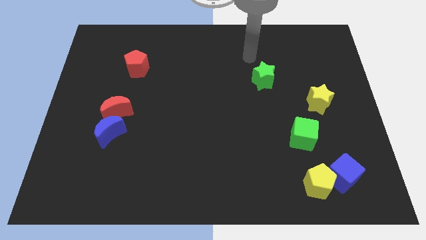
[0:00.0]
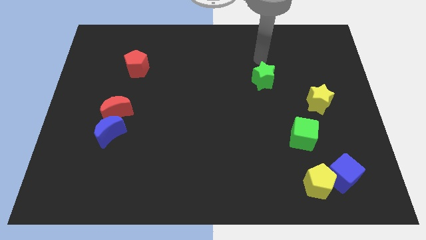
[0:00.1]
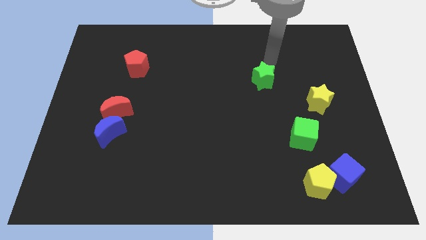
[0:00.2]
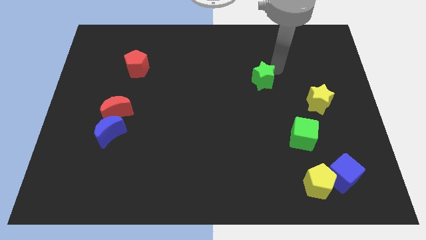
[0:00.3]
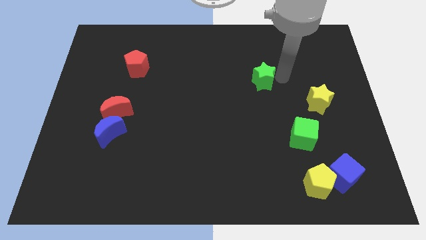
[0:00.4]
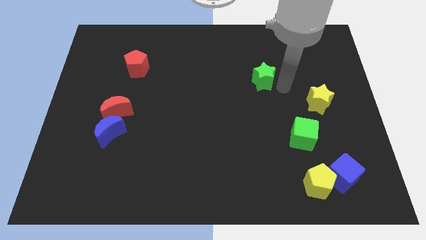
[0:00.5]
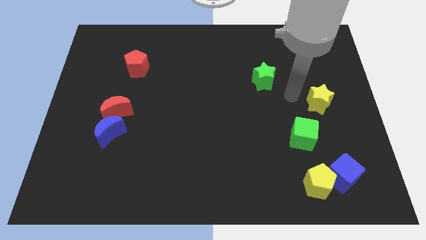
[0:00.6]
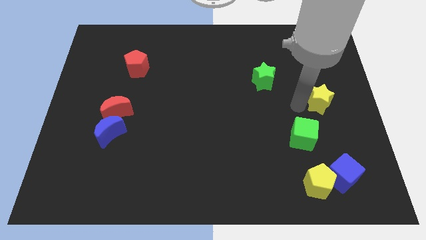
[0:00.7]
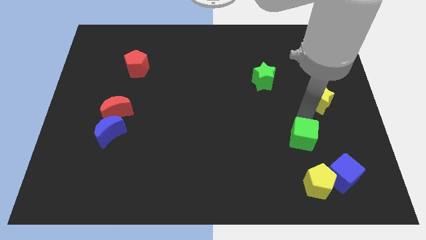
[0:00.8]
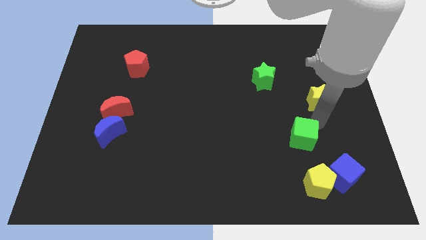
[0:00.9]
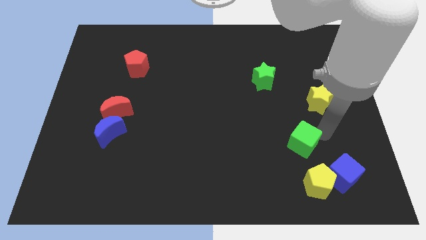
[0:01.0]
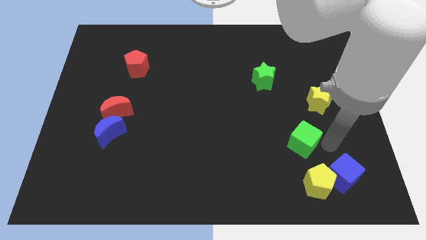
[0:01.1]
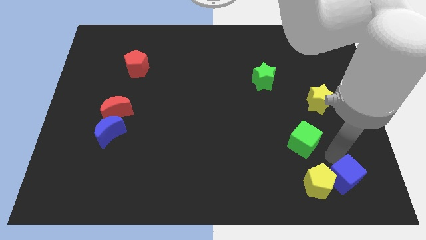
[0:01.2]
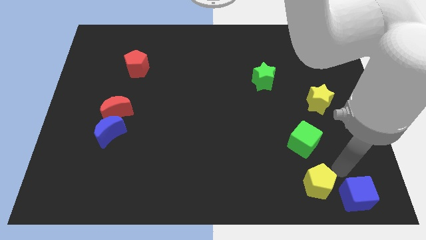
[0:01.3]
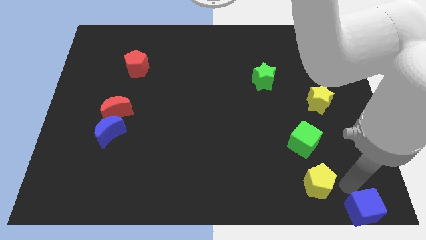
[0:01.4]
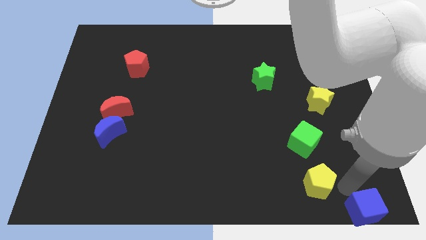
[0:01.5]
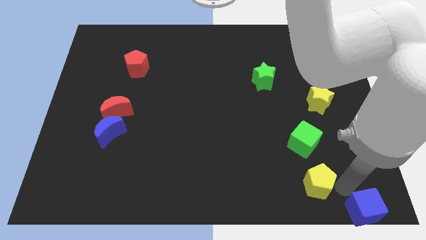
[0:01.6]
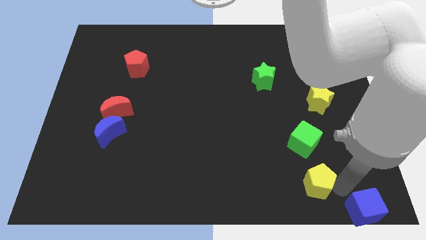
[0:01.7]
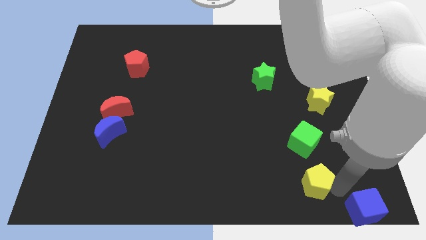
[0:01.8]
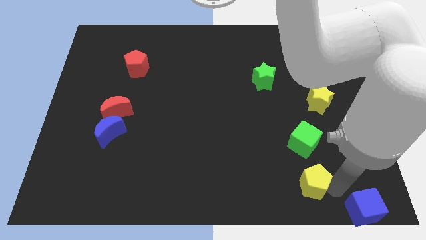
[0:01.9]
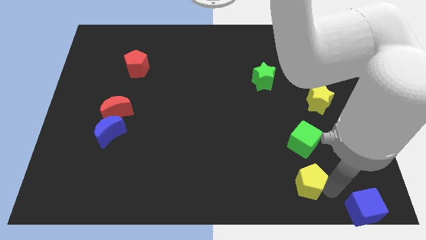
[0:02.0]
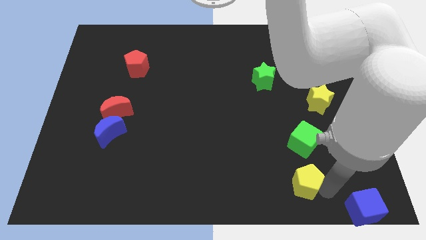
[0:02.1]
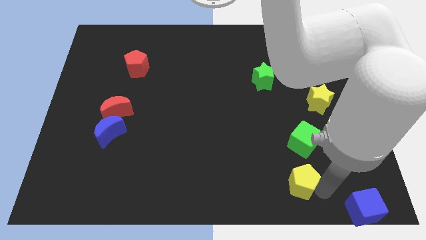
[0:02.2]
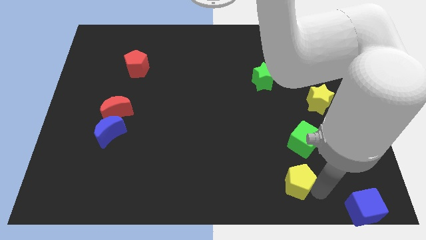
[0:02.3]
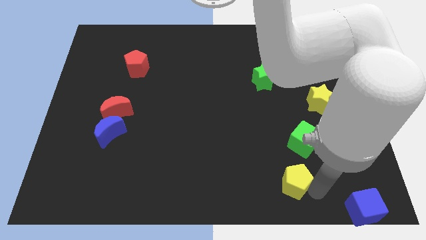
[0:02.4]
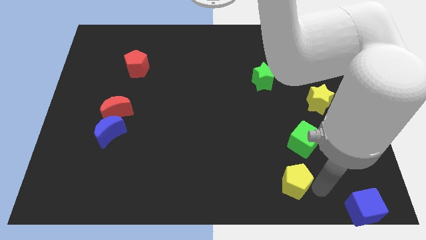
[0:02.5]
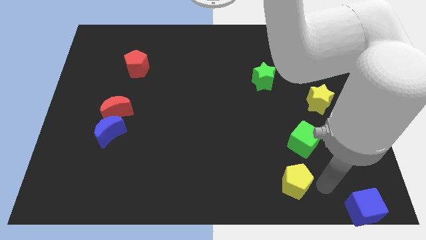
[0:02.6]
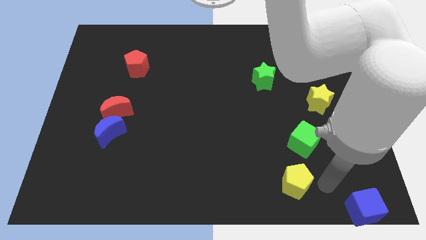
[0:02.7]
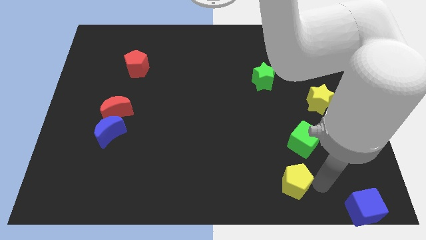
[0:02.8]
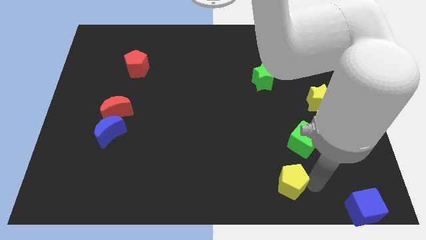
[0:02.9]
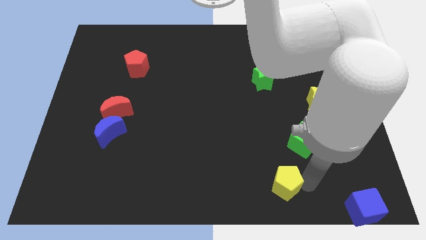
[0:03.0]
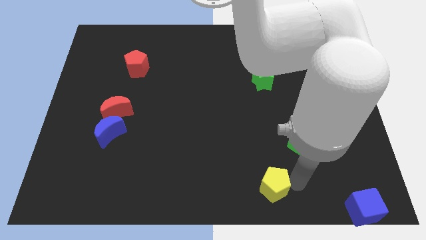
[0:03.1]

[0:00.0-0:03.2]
push the yellow pentagon slightly left

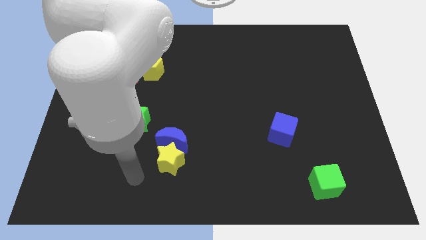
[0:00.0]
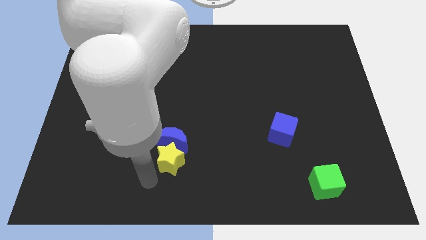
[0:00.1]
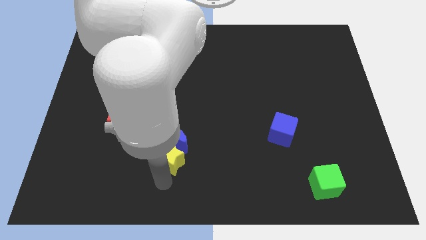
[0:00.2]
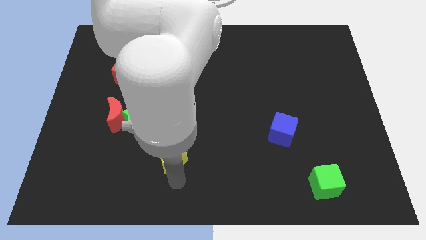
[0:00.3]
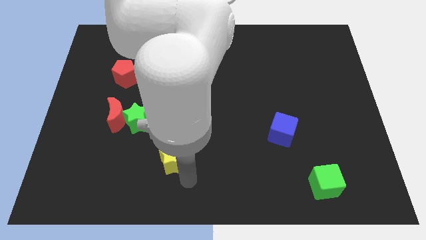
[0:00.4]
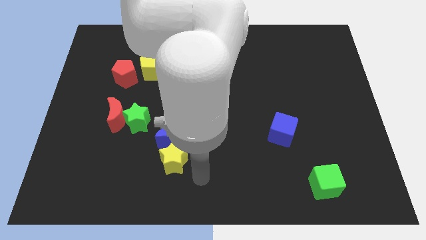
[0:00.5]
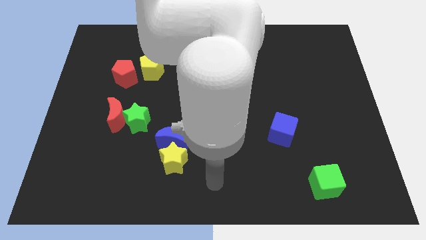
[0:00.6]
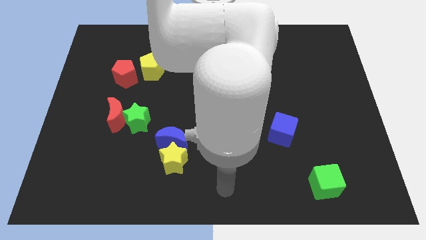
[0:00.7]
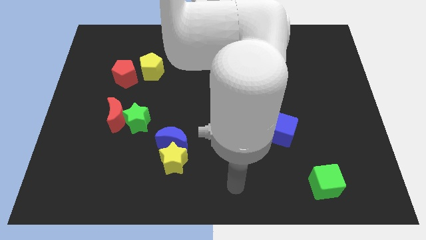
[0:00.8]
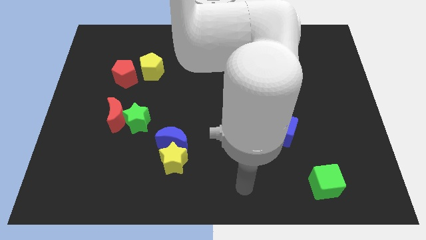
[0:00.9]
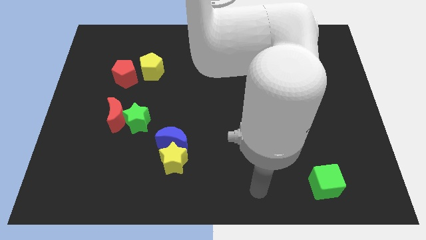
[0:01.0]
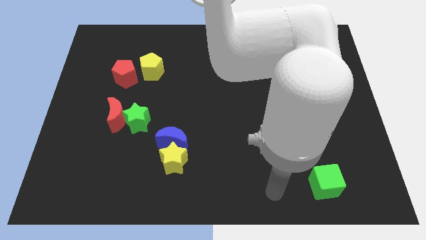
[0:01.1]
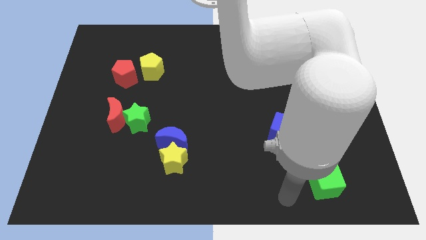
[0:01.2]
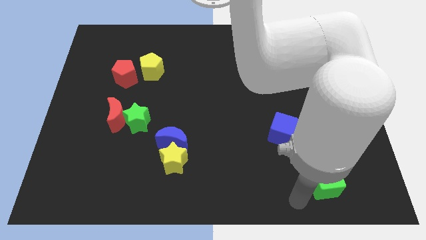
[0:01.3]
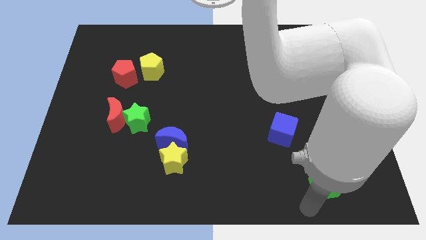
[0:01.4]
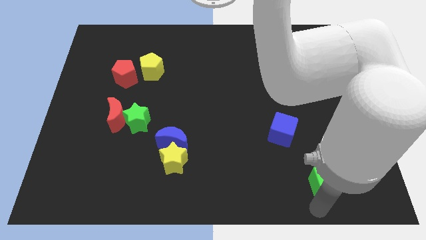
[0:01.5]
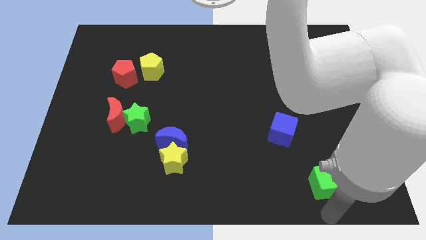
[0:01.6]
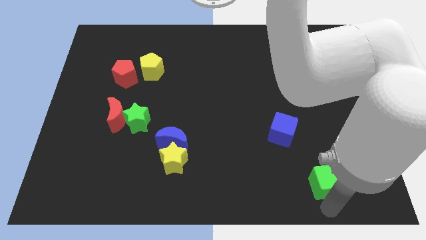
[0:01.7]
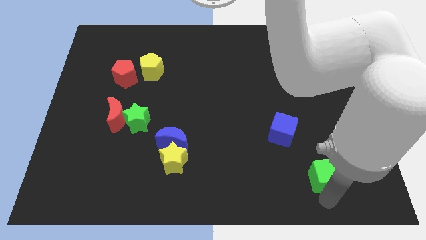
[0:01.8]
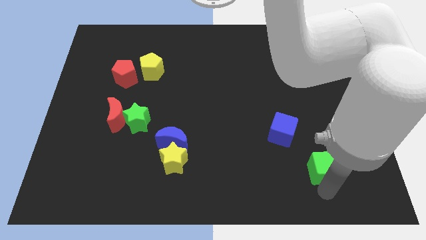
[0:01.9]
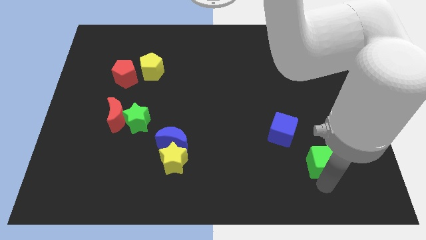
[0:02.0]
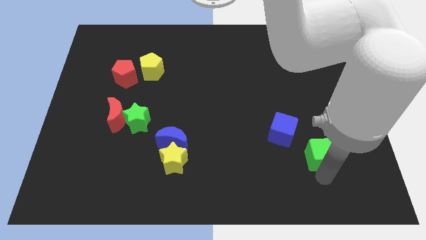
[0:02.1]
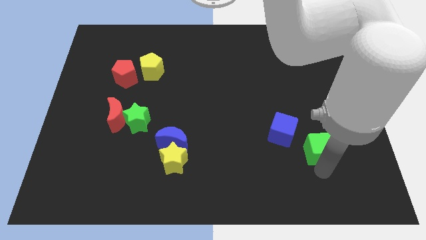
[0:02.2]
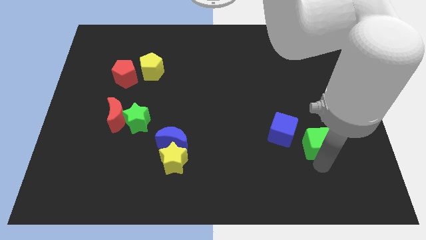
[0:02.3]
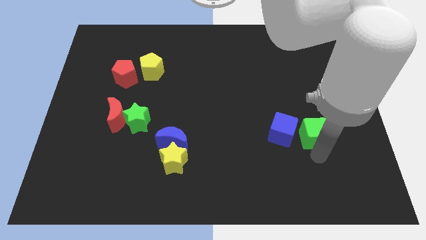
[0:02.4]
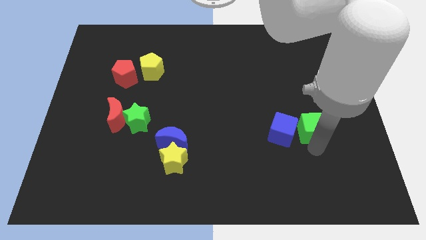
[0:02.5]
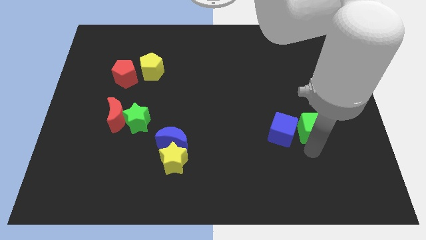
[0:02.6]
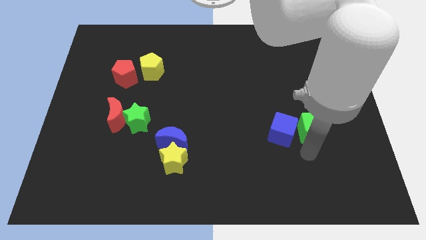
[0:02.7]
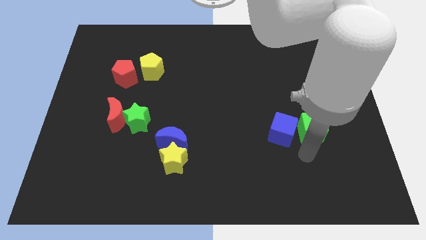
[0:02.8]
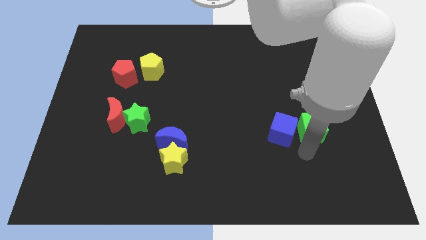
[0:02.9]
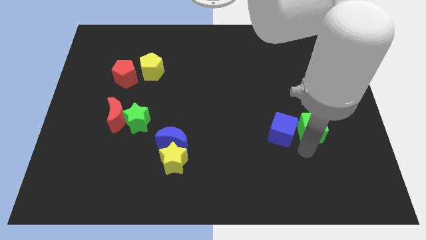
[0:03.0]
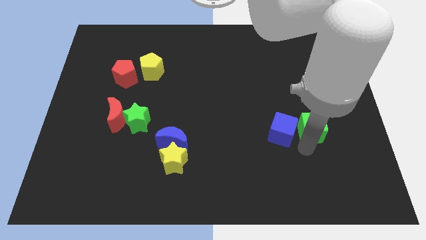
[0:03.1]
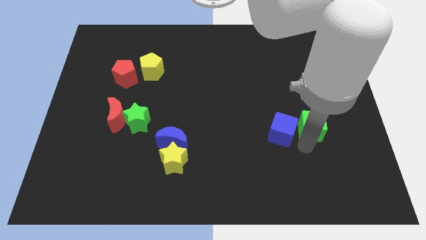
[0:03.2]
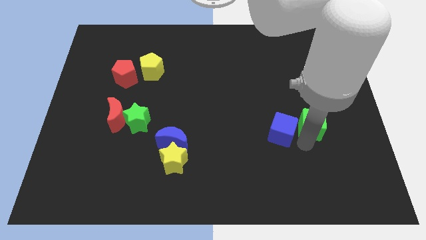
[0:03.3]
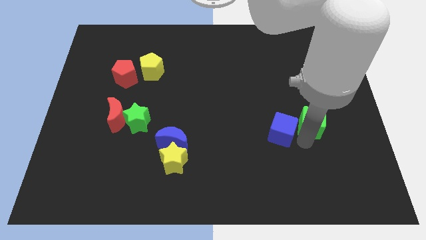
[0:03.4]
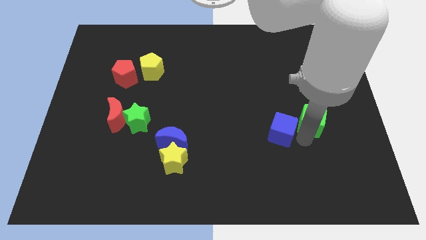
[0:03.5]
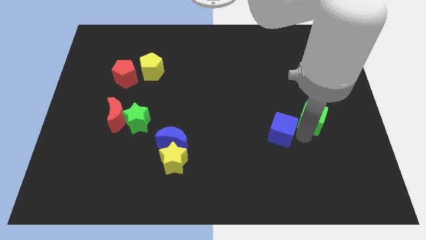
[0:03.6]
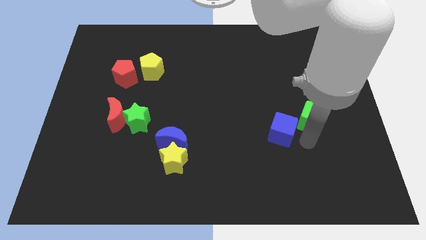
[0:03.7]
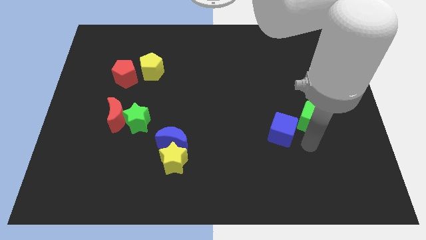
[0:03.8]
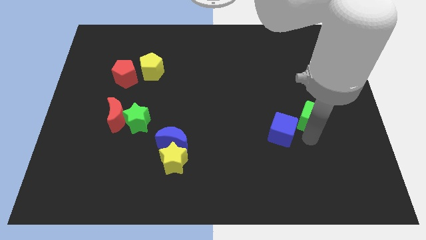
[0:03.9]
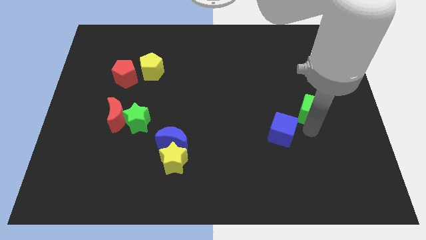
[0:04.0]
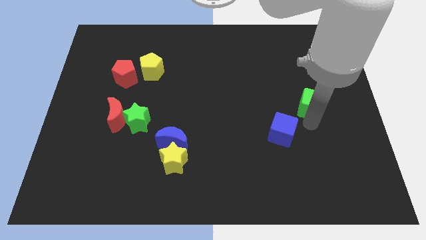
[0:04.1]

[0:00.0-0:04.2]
push the green cube up

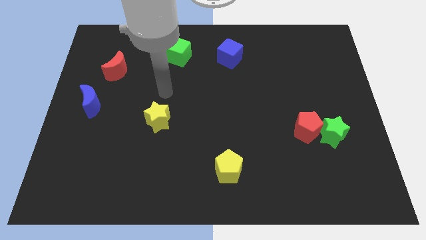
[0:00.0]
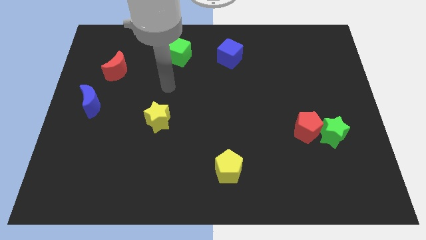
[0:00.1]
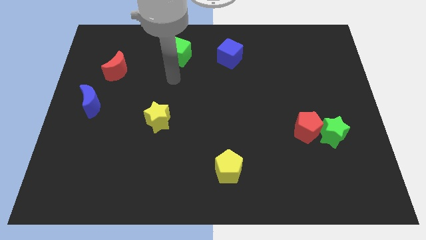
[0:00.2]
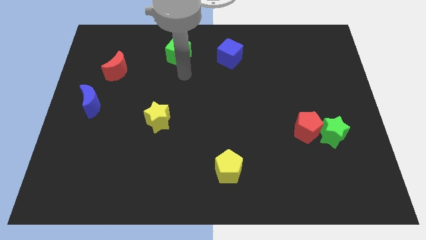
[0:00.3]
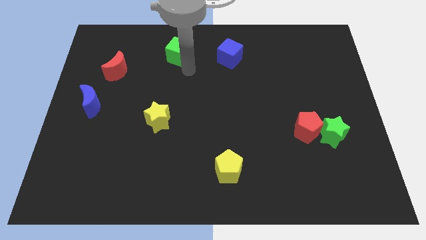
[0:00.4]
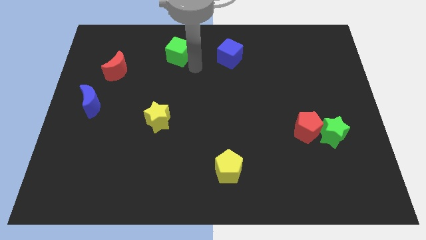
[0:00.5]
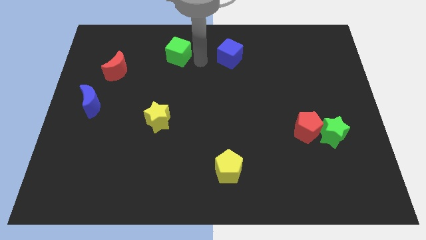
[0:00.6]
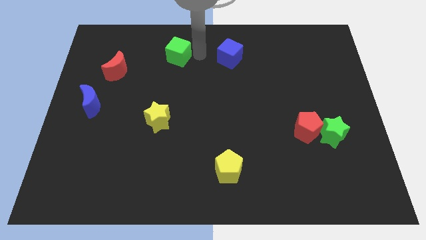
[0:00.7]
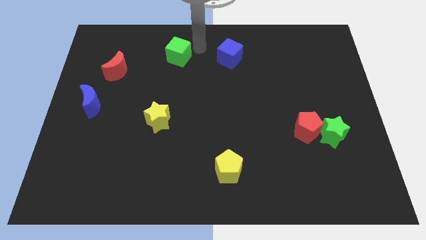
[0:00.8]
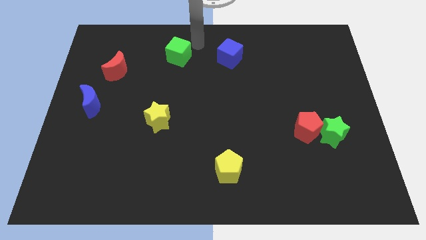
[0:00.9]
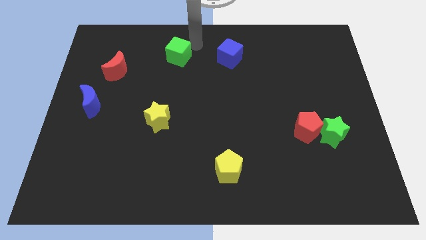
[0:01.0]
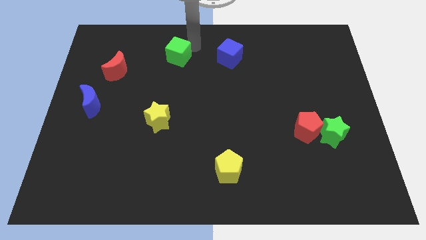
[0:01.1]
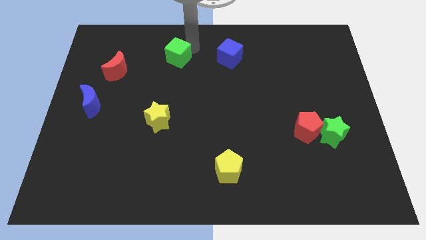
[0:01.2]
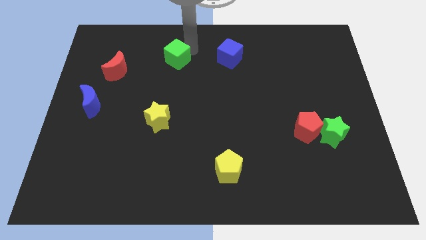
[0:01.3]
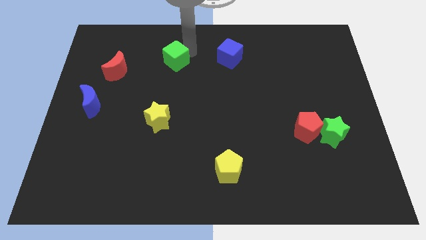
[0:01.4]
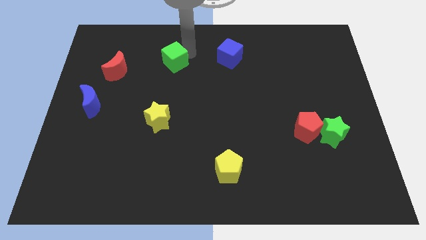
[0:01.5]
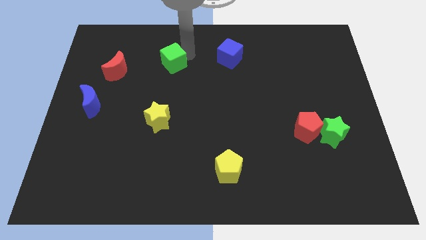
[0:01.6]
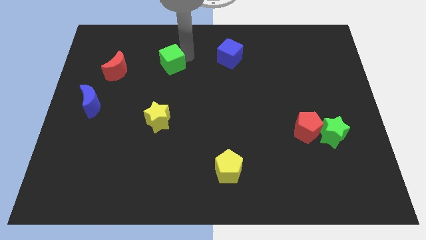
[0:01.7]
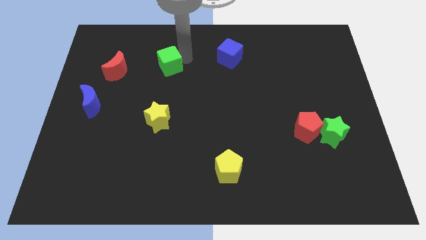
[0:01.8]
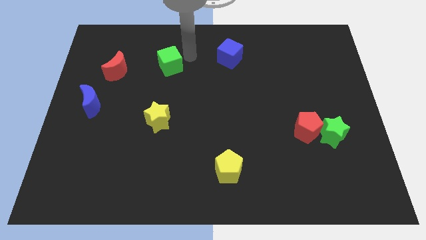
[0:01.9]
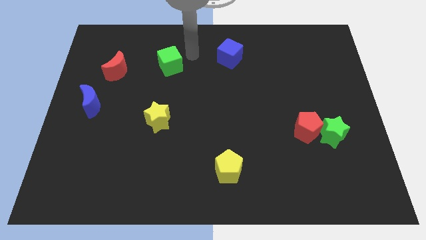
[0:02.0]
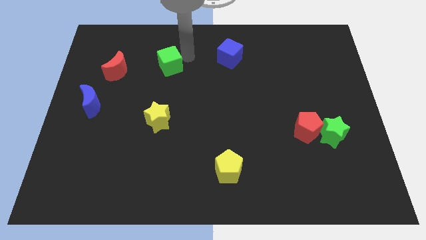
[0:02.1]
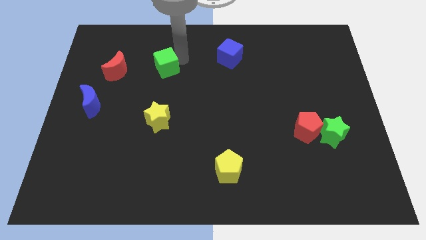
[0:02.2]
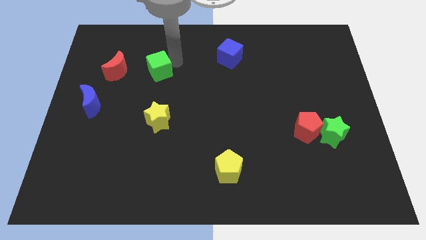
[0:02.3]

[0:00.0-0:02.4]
slightly move the green cube downwards and then left
